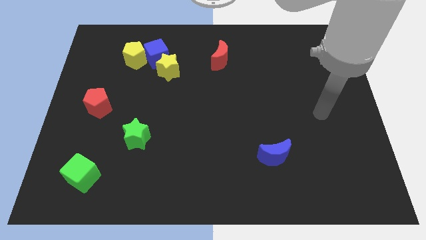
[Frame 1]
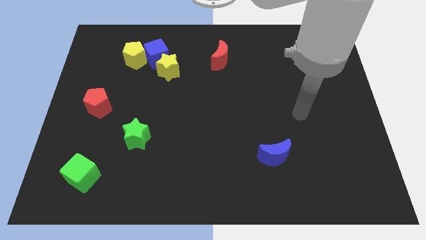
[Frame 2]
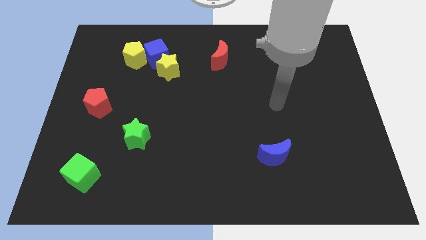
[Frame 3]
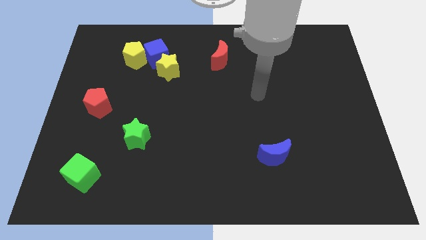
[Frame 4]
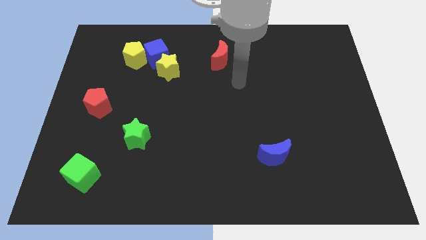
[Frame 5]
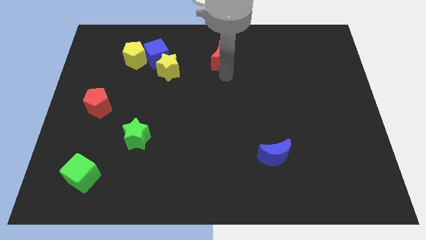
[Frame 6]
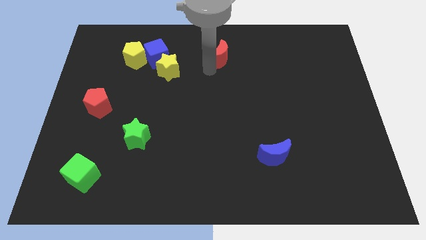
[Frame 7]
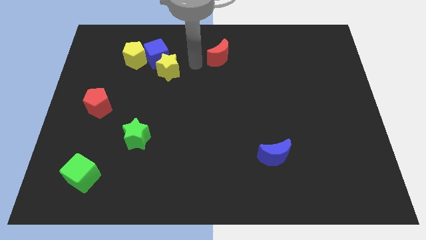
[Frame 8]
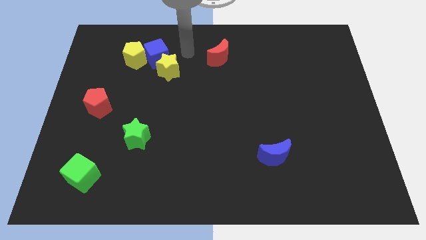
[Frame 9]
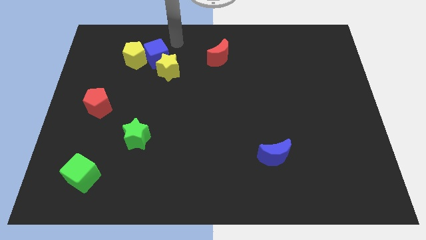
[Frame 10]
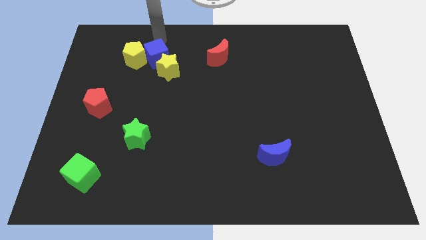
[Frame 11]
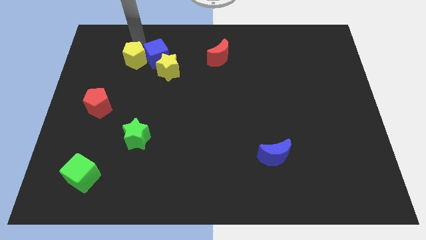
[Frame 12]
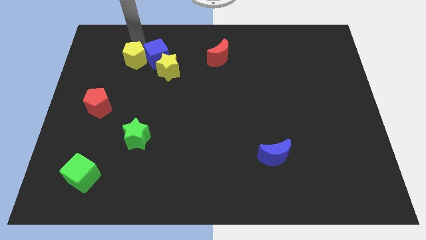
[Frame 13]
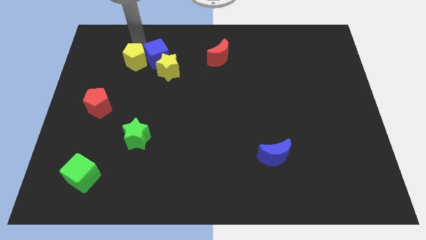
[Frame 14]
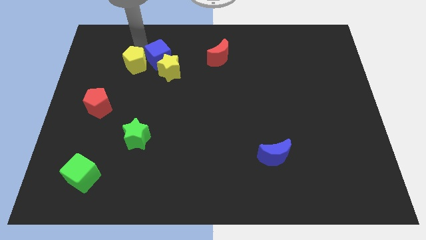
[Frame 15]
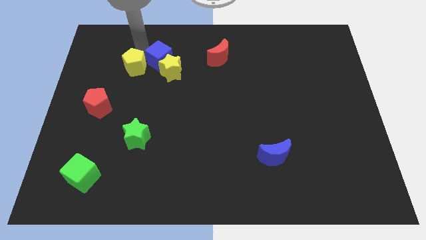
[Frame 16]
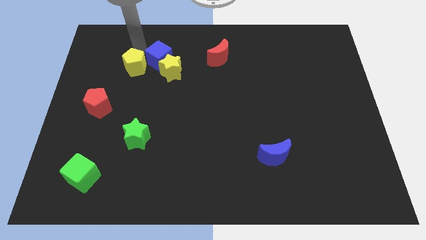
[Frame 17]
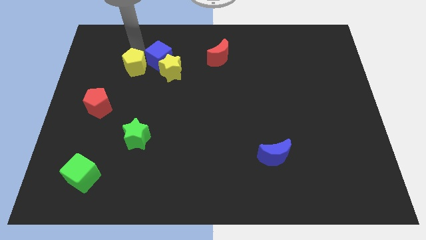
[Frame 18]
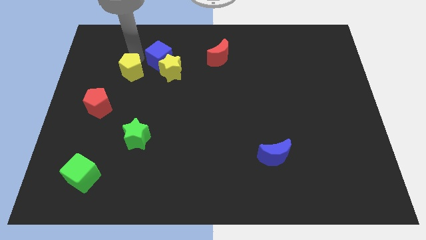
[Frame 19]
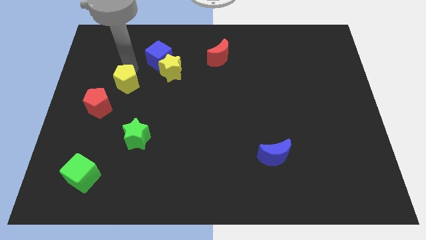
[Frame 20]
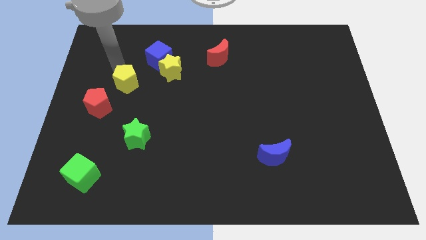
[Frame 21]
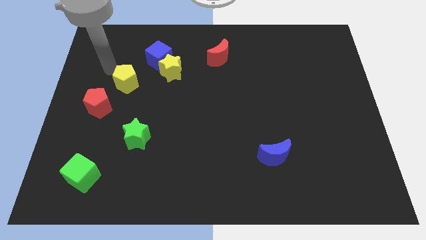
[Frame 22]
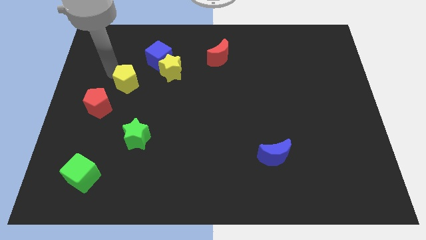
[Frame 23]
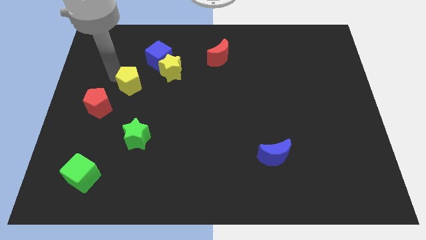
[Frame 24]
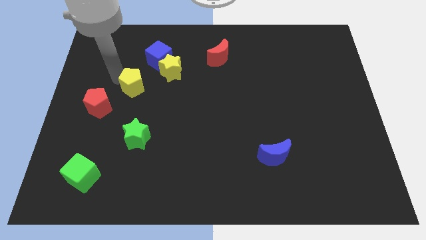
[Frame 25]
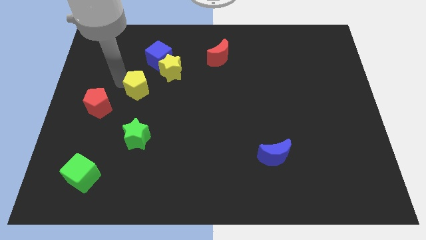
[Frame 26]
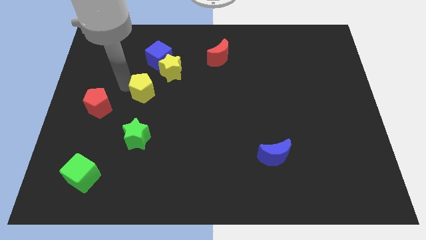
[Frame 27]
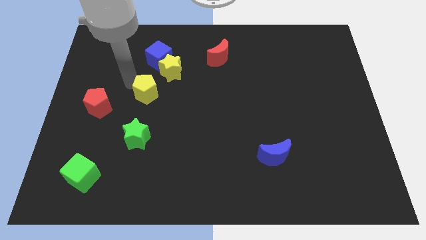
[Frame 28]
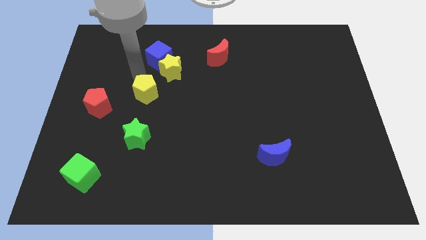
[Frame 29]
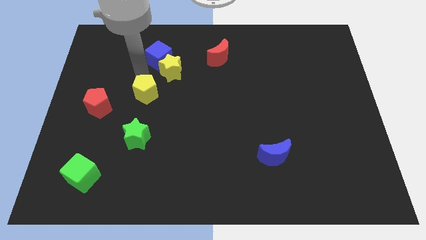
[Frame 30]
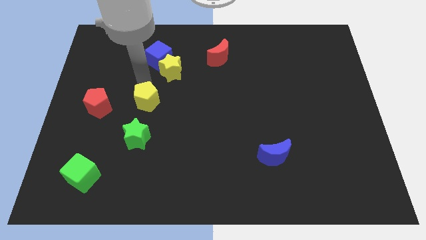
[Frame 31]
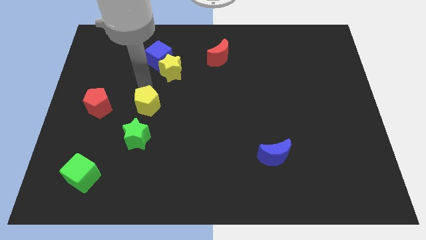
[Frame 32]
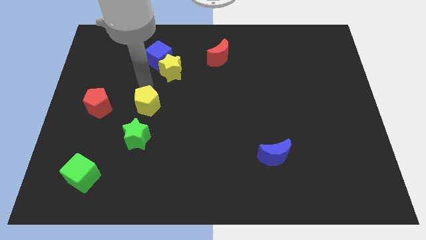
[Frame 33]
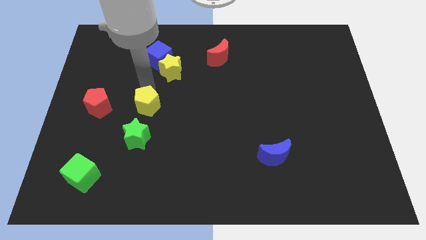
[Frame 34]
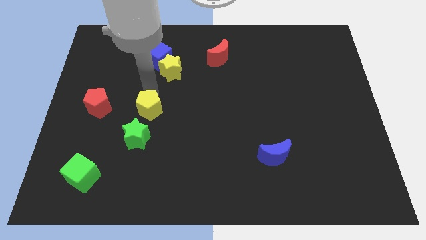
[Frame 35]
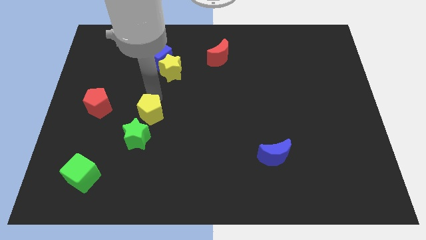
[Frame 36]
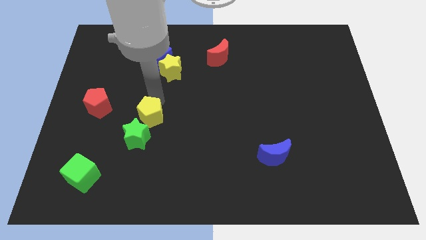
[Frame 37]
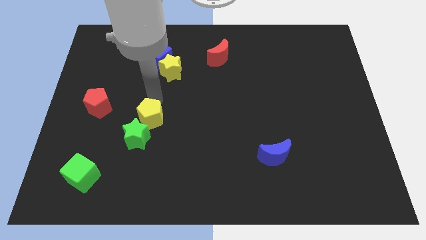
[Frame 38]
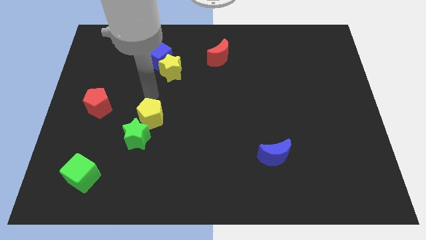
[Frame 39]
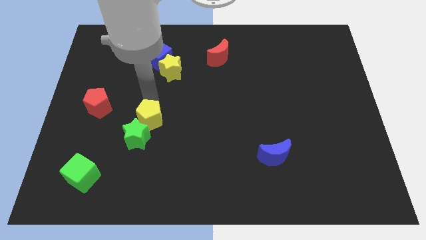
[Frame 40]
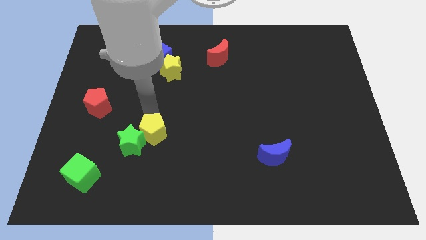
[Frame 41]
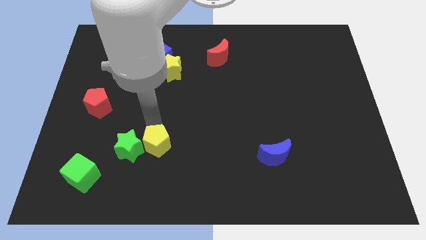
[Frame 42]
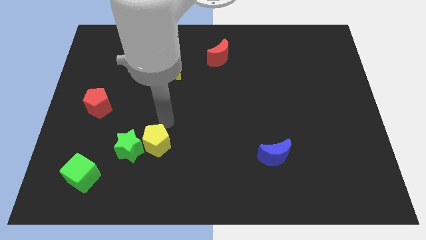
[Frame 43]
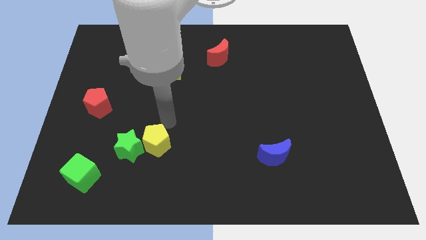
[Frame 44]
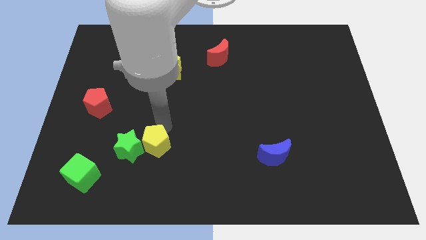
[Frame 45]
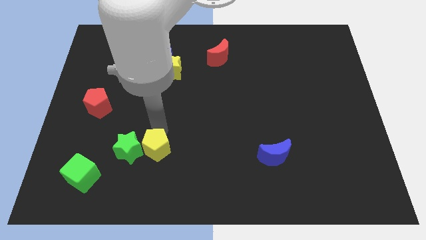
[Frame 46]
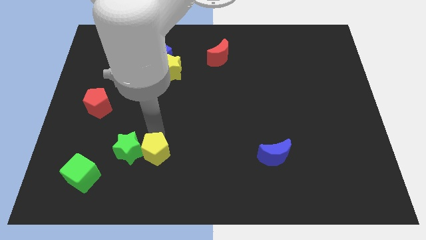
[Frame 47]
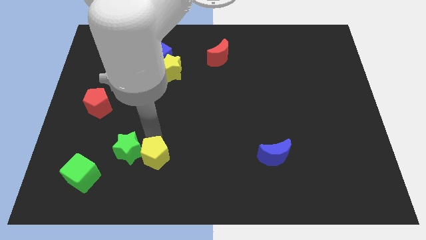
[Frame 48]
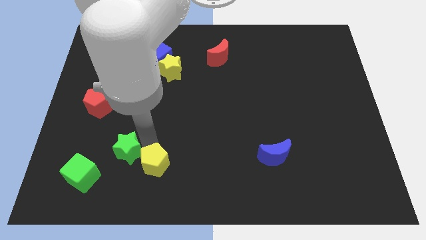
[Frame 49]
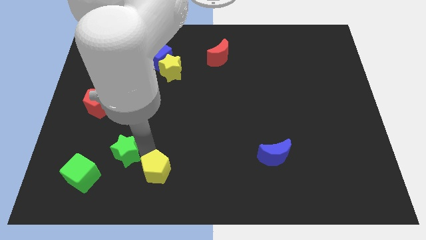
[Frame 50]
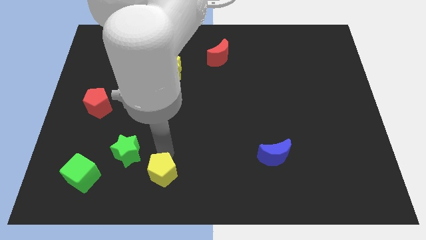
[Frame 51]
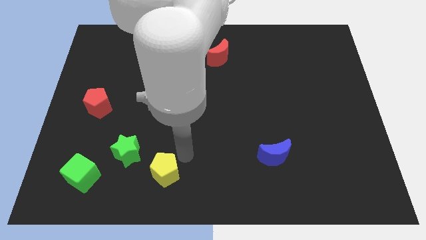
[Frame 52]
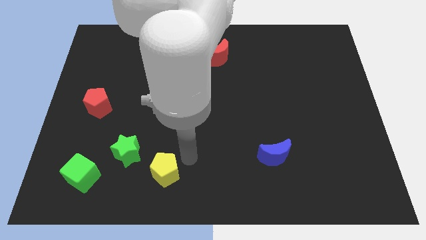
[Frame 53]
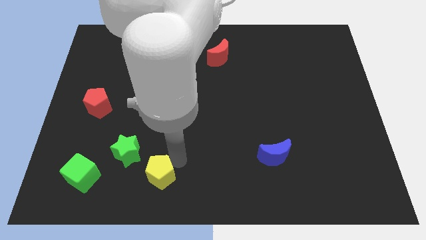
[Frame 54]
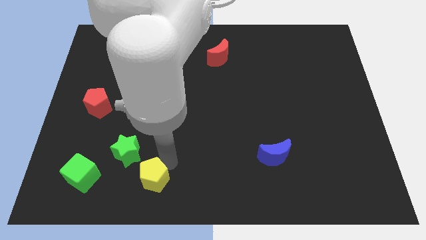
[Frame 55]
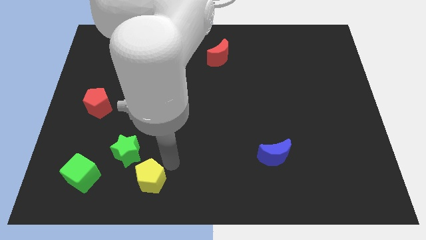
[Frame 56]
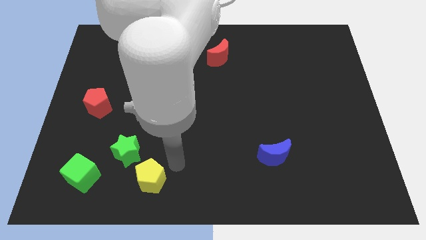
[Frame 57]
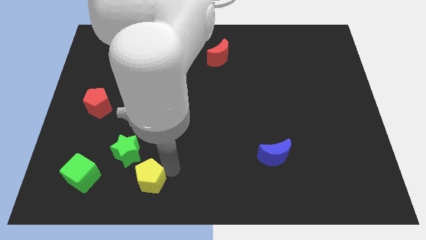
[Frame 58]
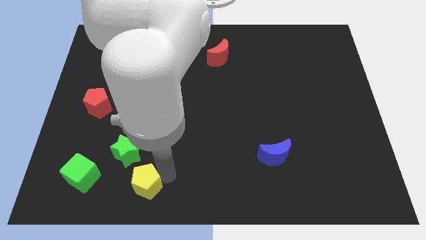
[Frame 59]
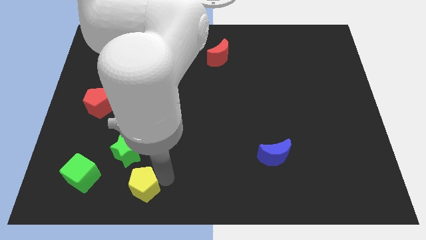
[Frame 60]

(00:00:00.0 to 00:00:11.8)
move the yellow pentagon to the bottom side of the green star

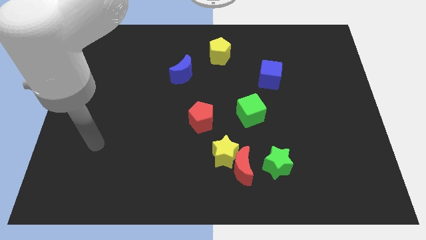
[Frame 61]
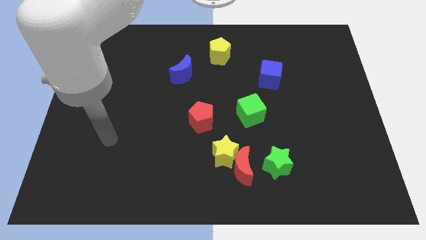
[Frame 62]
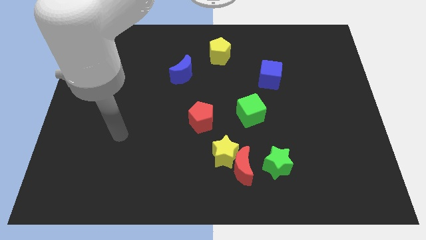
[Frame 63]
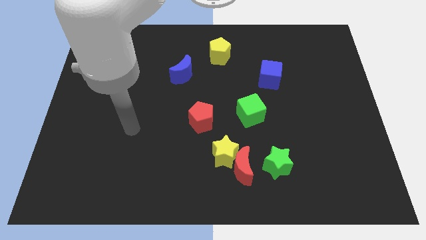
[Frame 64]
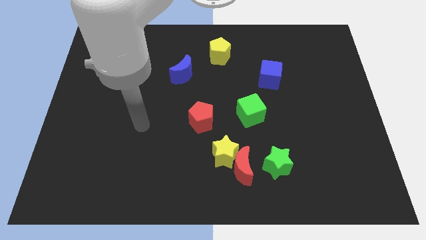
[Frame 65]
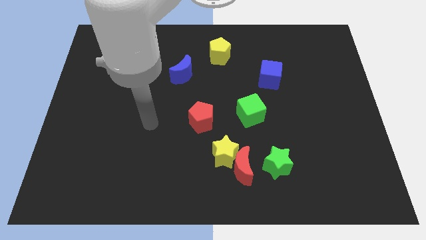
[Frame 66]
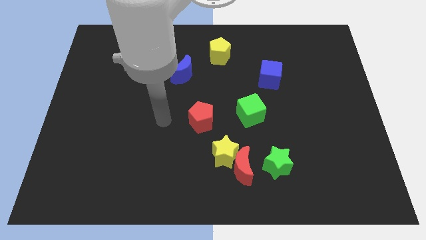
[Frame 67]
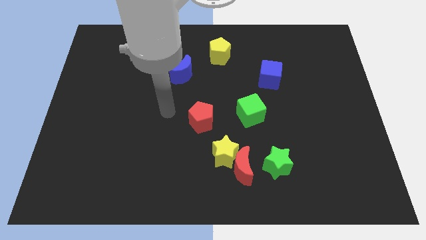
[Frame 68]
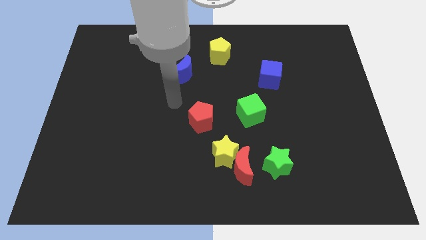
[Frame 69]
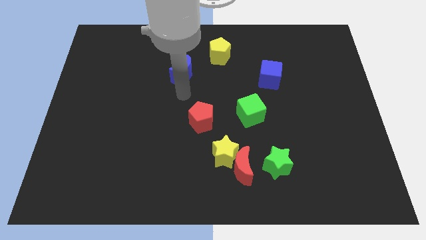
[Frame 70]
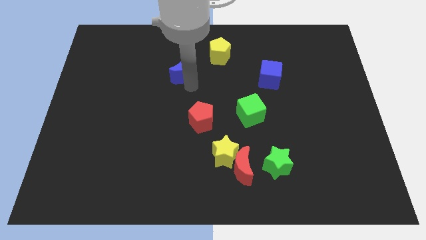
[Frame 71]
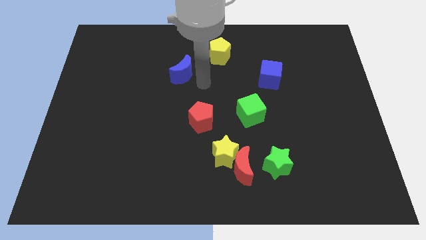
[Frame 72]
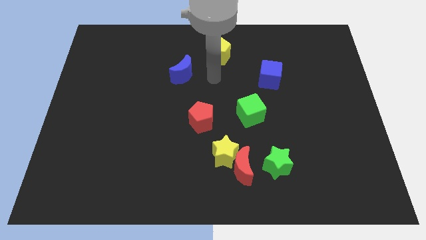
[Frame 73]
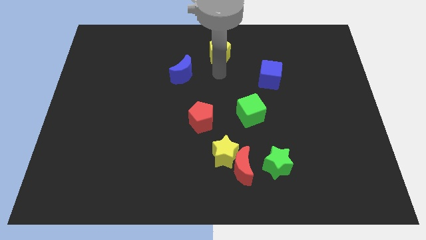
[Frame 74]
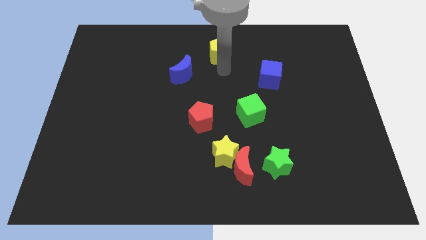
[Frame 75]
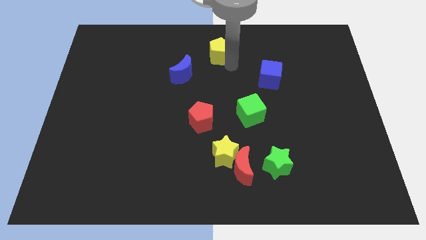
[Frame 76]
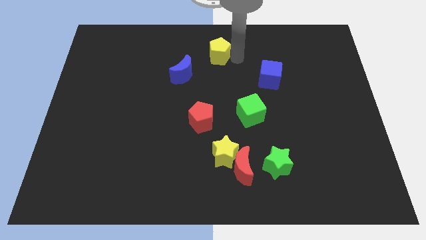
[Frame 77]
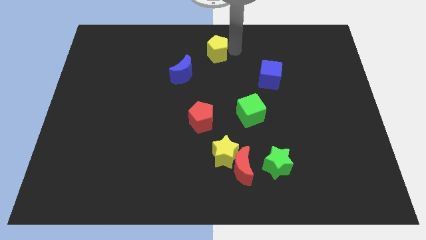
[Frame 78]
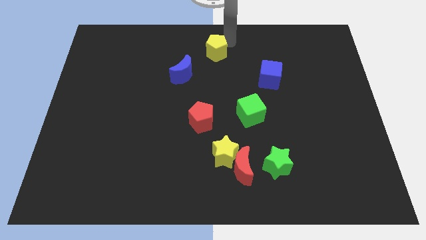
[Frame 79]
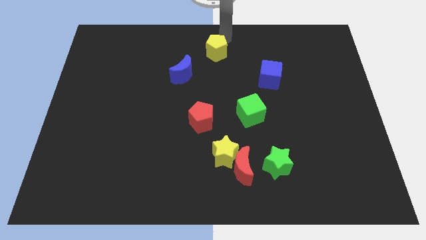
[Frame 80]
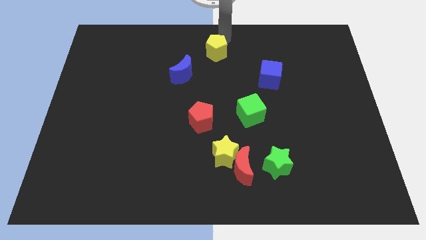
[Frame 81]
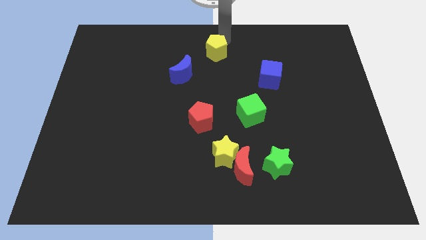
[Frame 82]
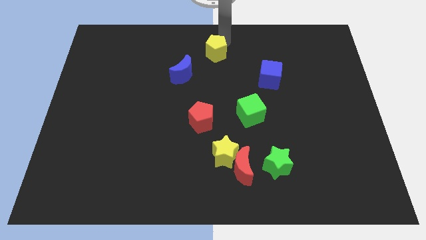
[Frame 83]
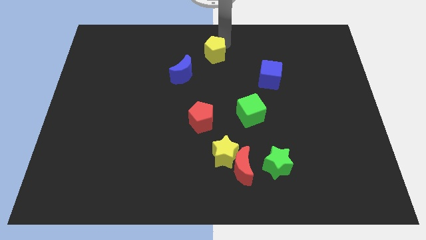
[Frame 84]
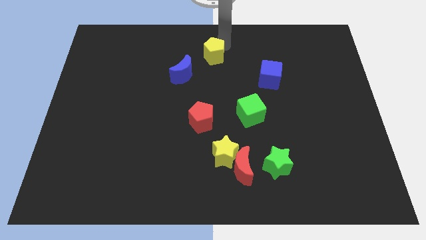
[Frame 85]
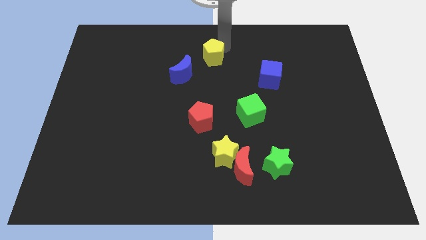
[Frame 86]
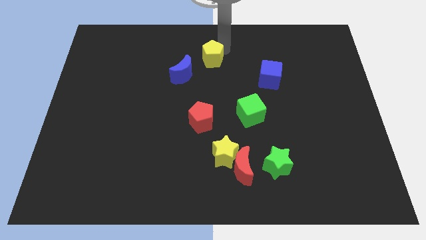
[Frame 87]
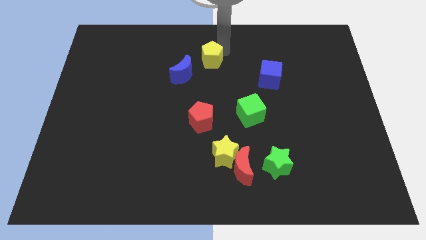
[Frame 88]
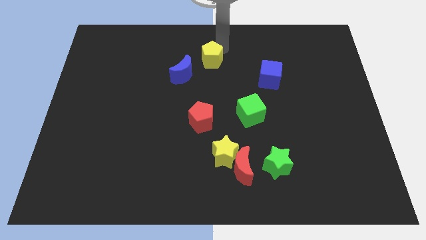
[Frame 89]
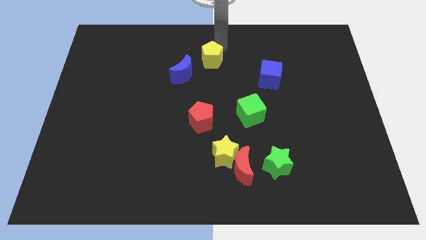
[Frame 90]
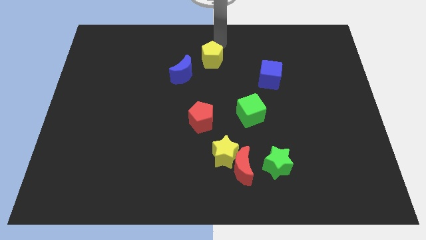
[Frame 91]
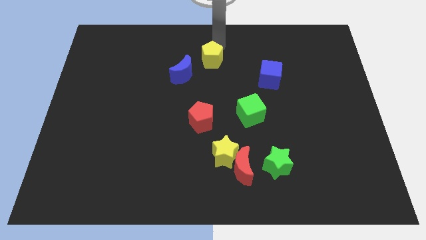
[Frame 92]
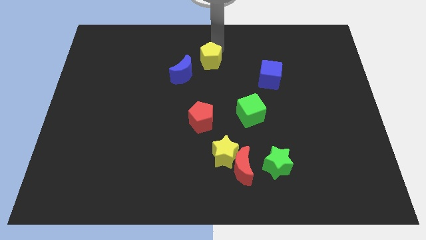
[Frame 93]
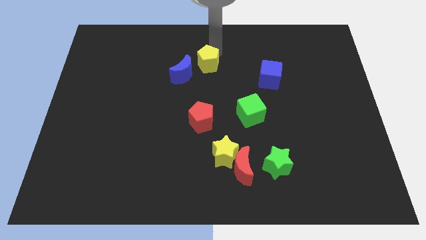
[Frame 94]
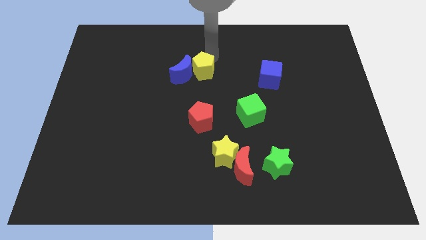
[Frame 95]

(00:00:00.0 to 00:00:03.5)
put the yellow pentagon to the bottom right side of the blue moon
